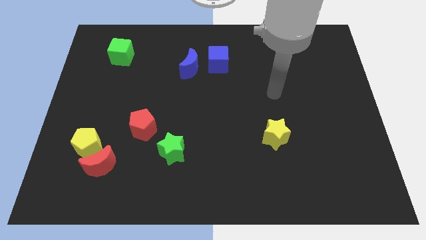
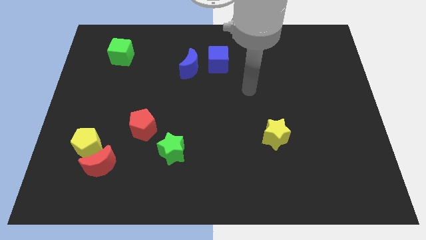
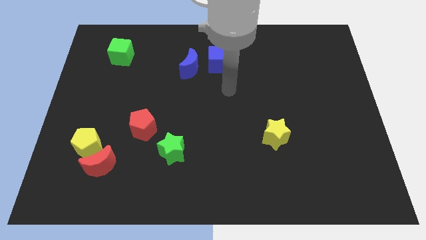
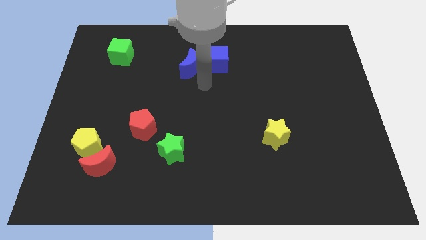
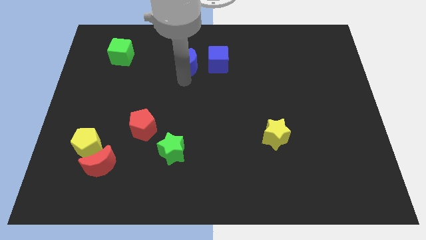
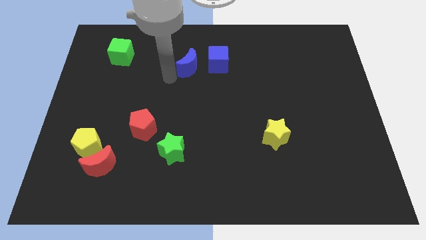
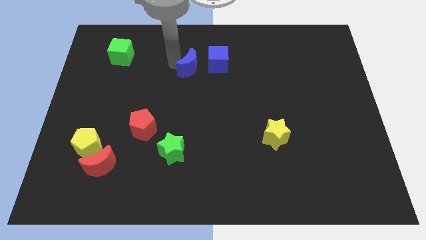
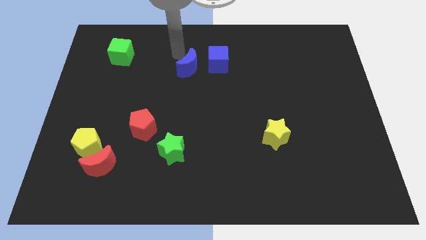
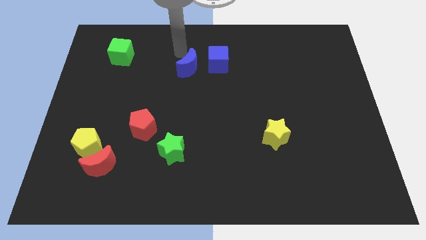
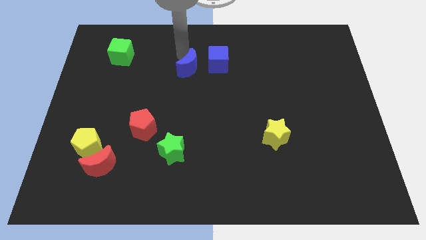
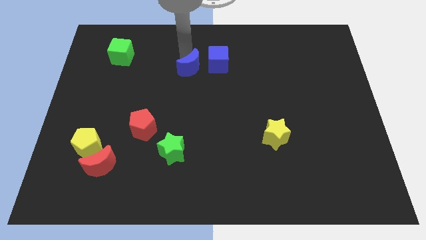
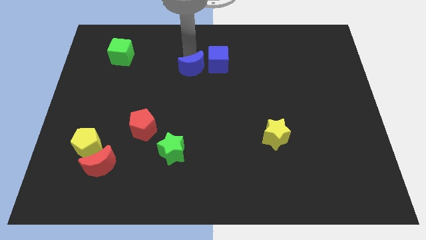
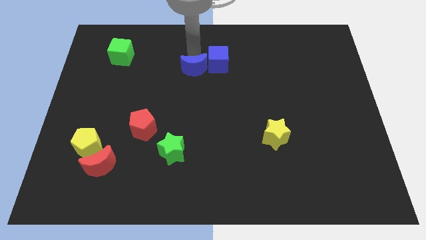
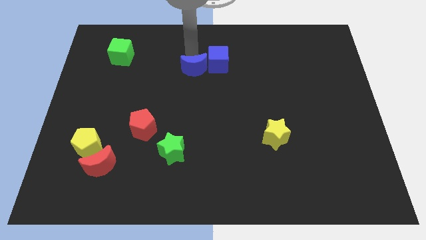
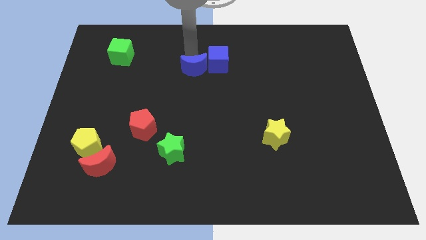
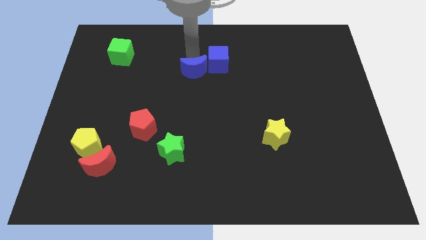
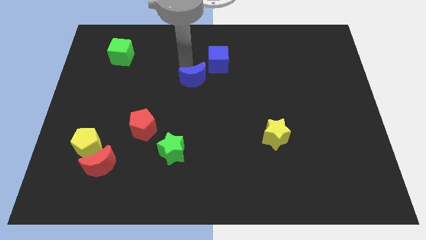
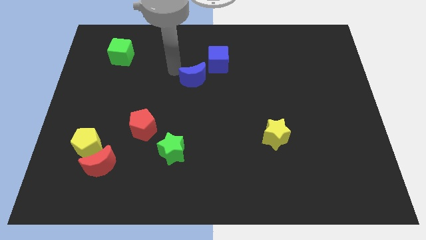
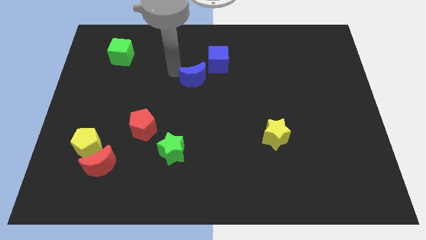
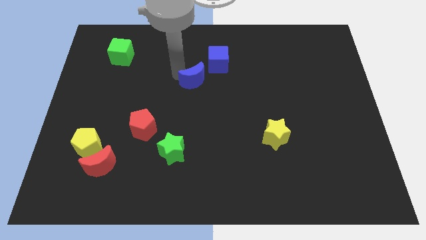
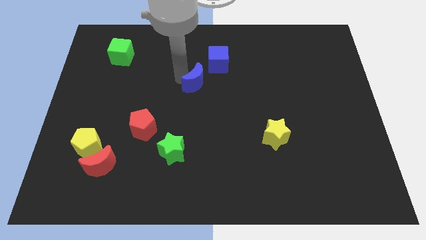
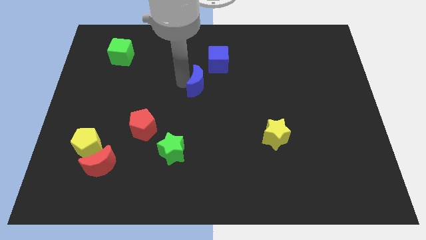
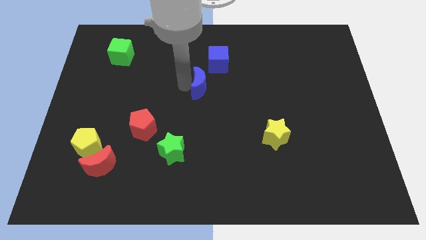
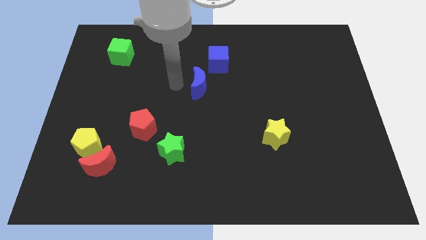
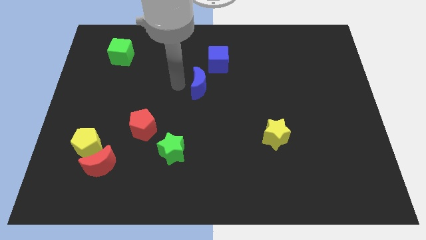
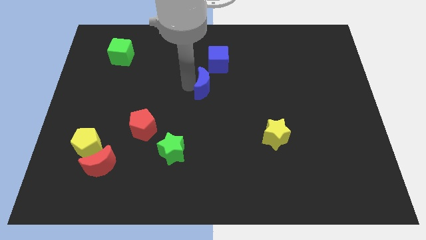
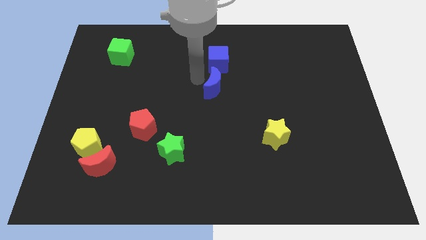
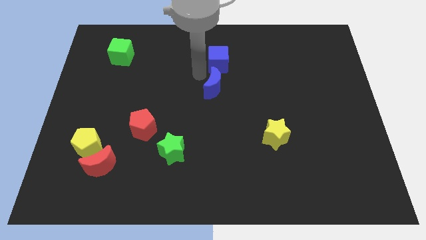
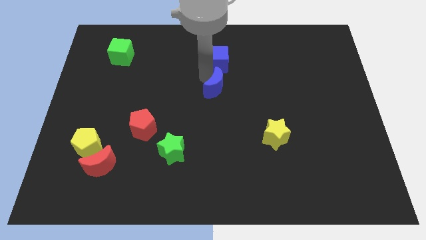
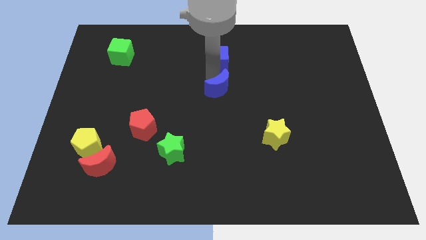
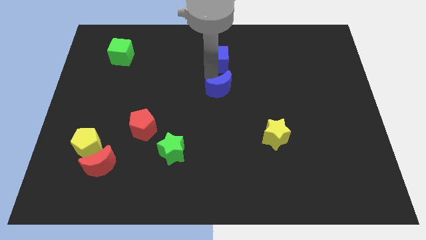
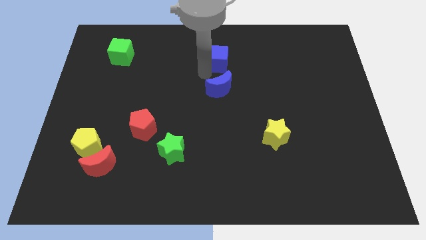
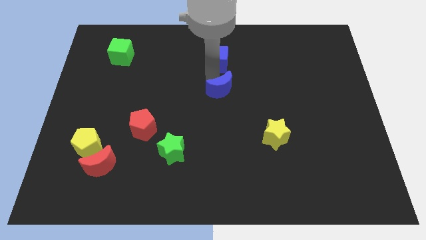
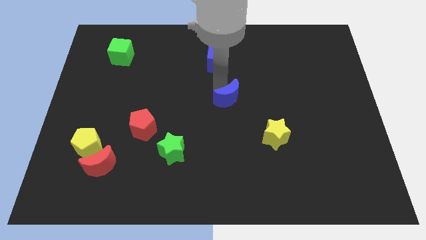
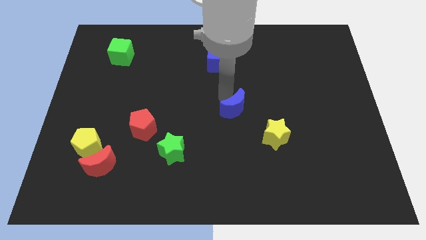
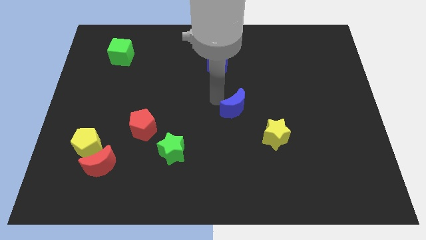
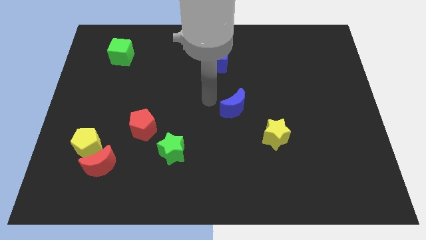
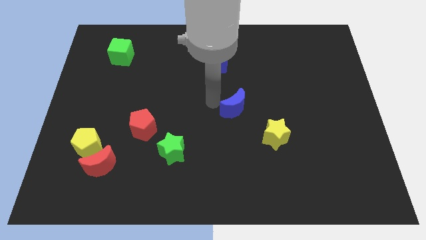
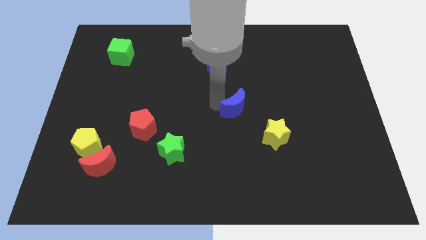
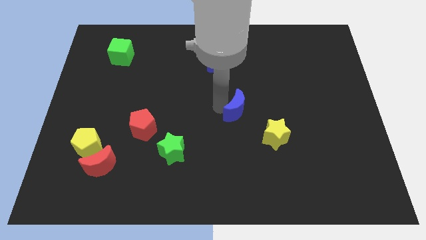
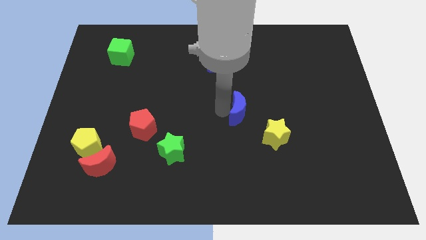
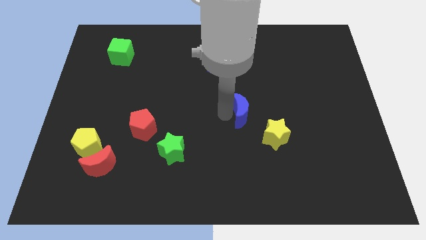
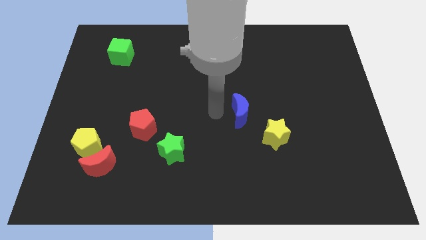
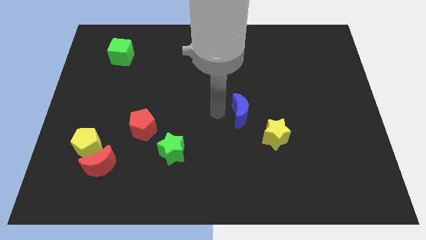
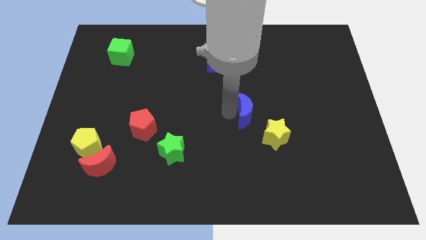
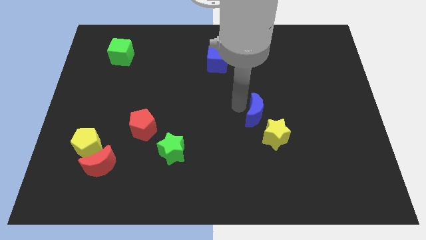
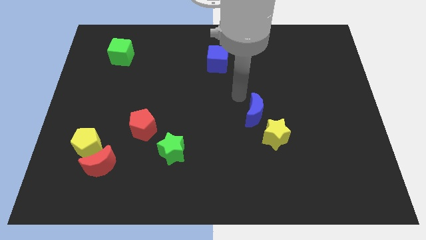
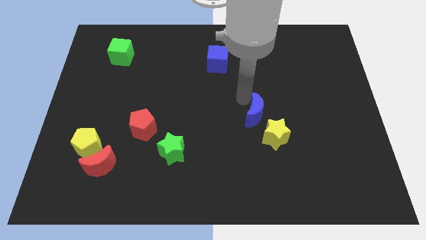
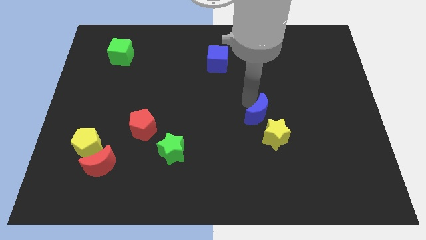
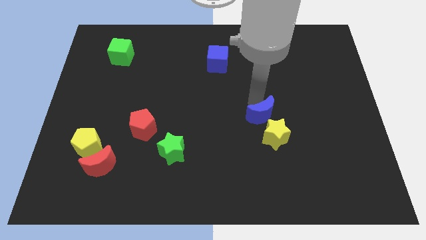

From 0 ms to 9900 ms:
slide the blue moon close to the yellow star

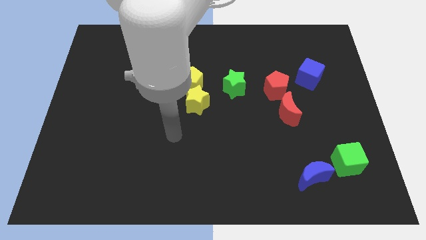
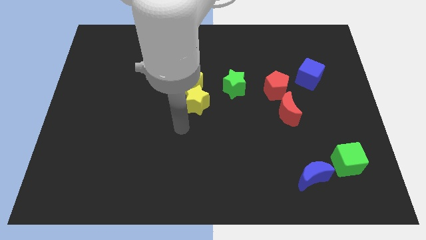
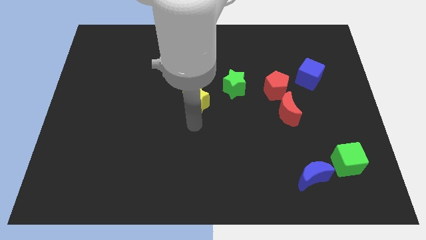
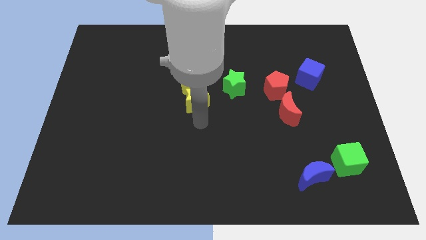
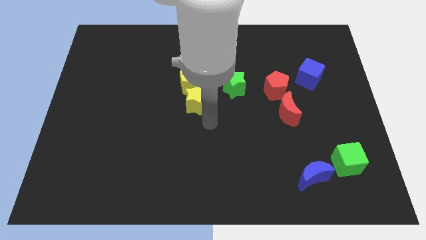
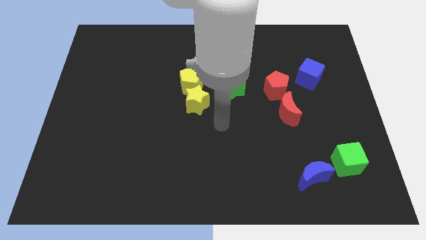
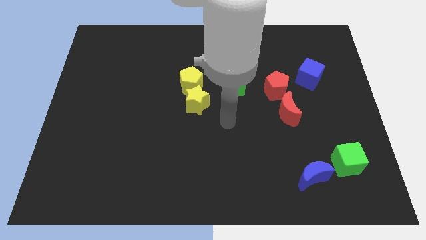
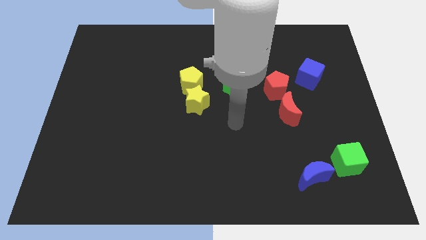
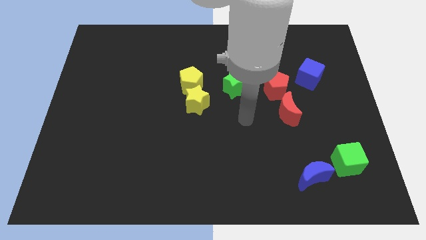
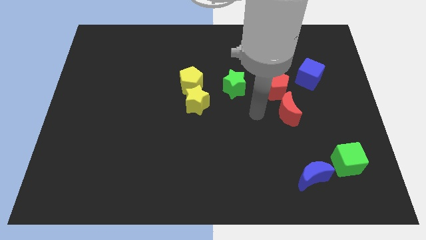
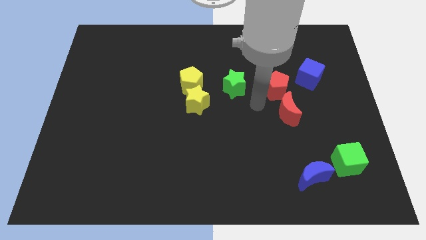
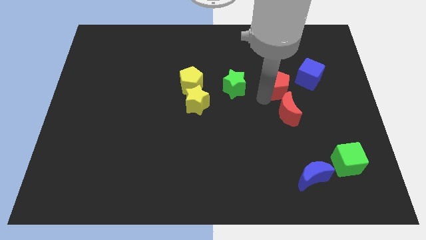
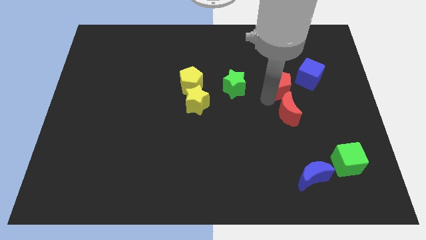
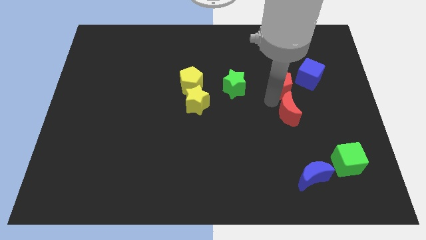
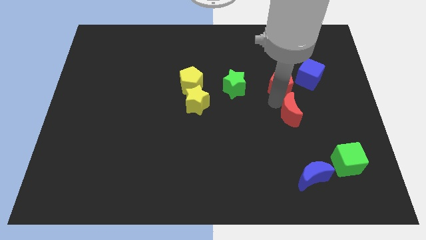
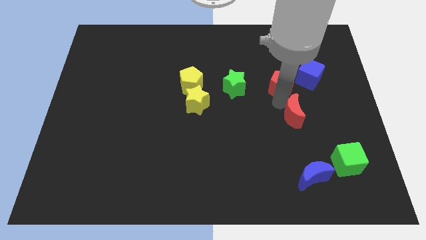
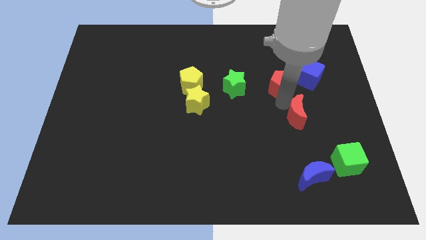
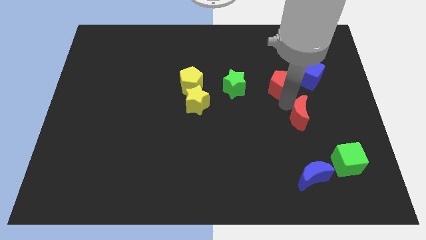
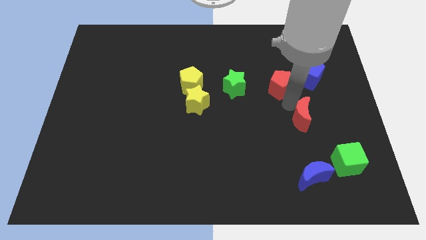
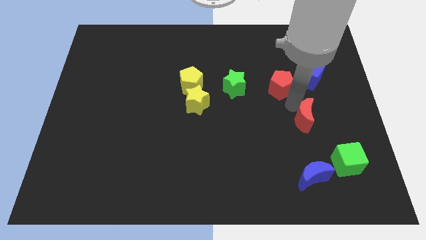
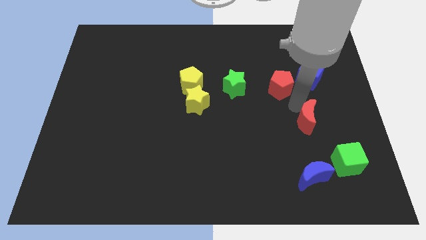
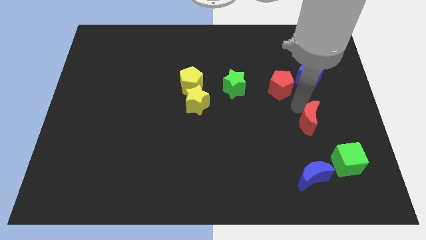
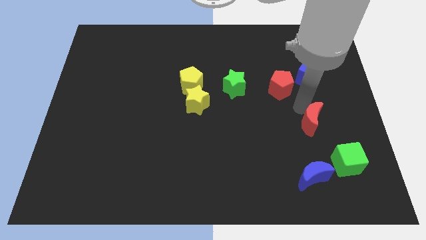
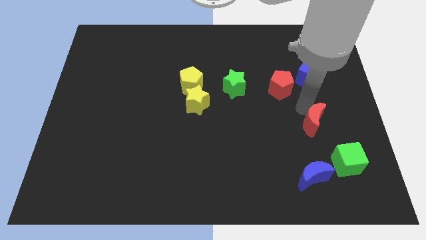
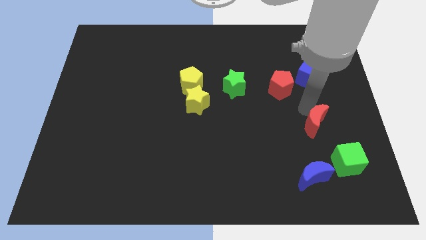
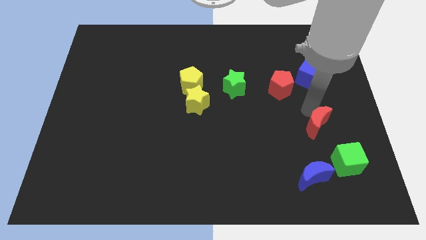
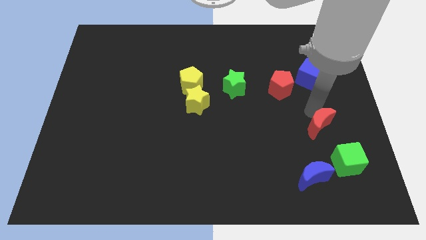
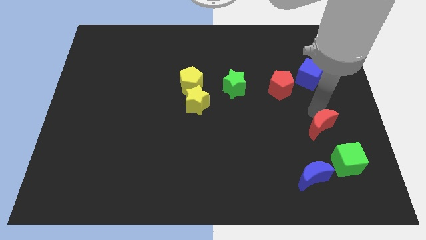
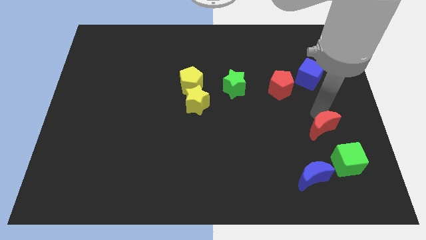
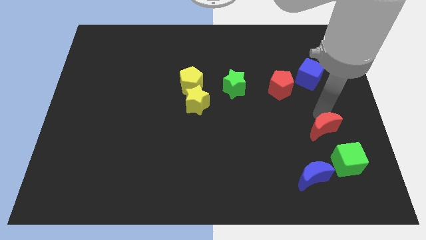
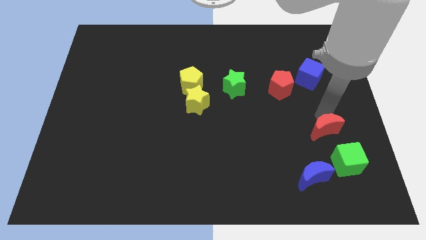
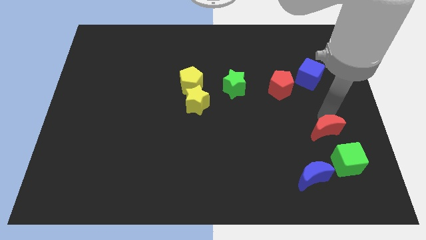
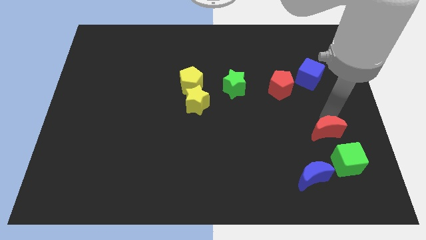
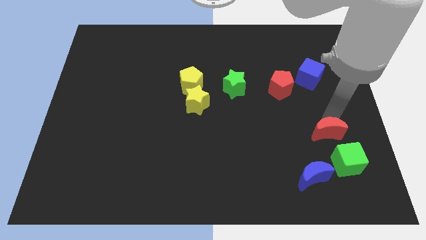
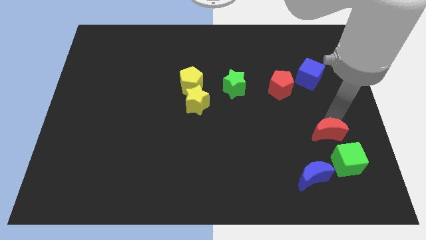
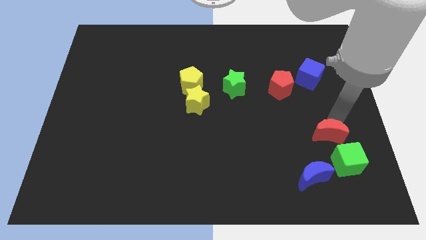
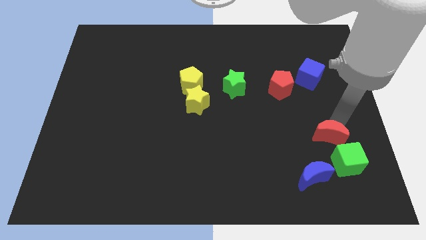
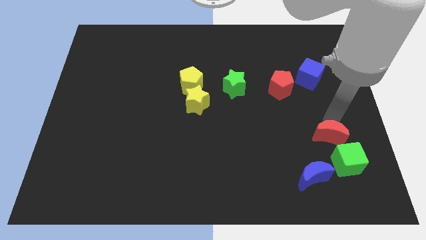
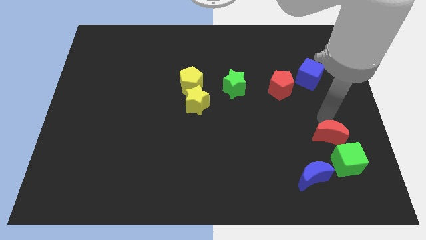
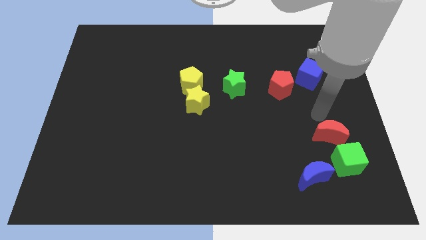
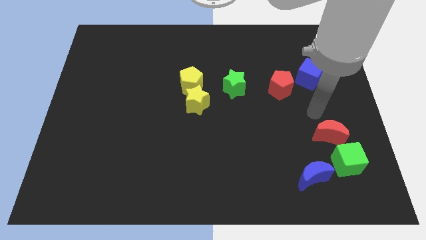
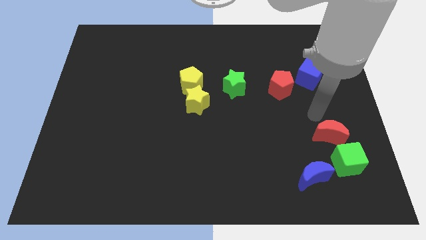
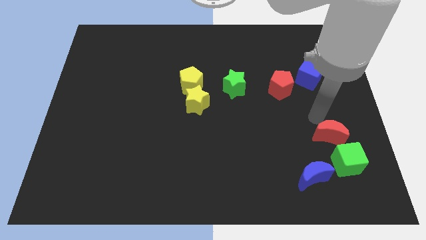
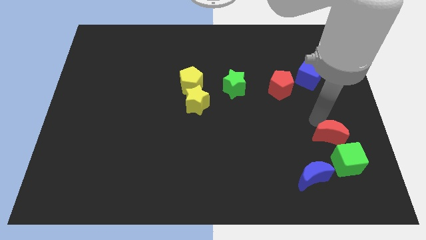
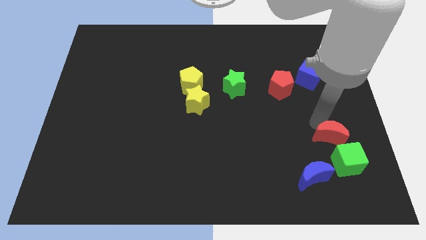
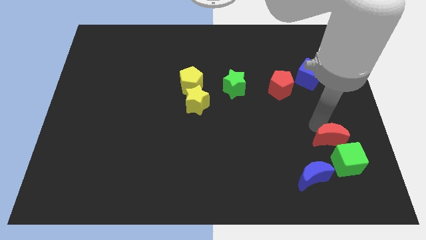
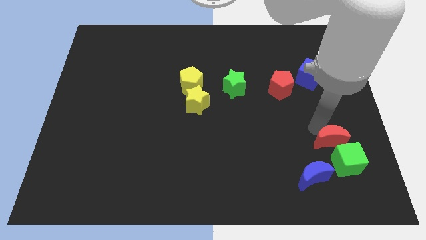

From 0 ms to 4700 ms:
slide the red moon close to the green cube
